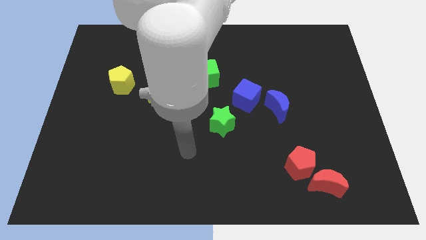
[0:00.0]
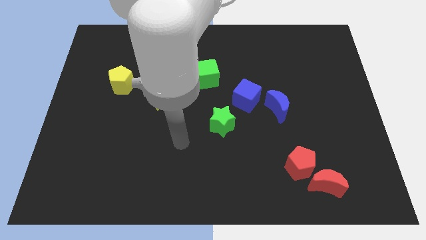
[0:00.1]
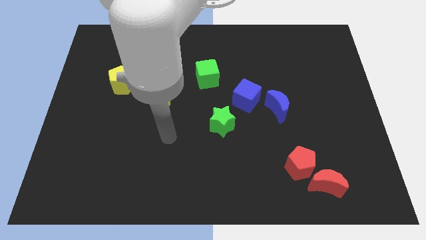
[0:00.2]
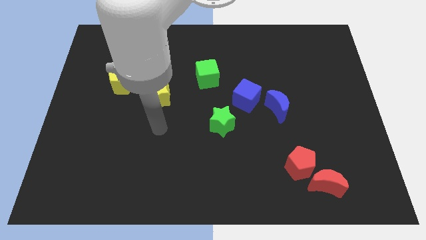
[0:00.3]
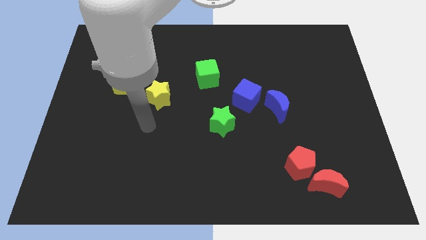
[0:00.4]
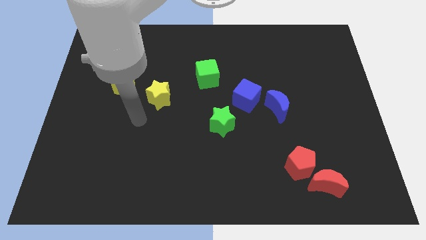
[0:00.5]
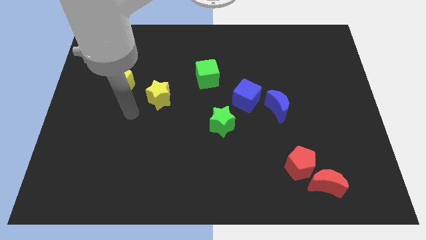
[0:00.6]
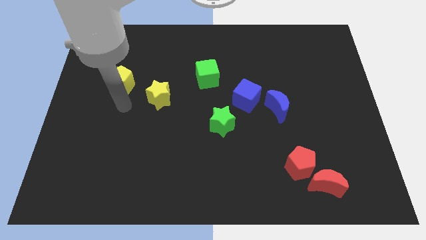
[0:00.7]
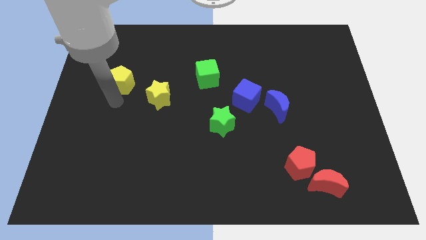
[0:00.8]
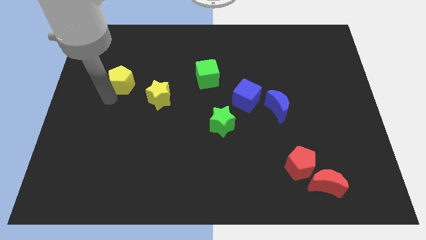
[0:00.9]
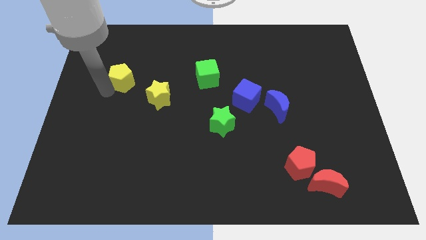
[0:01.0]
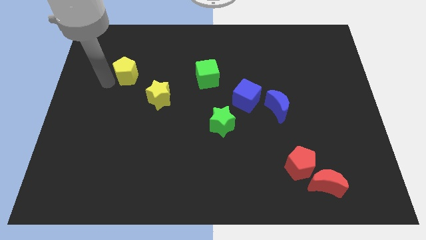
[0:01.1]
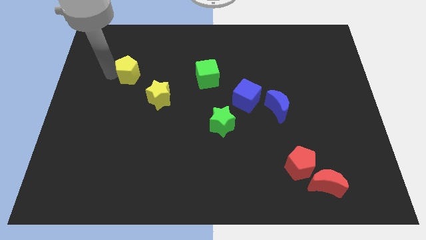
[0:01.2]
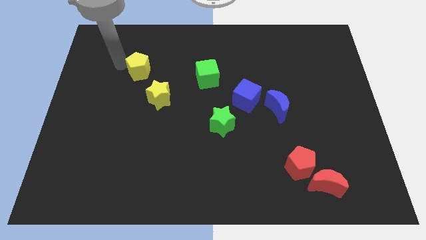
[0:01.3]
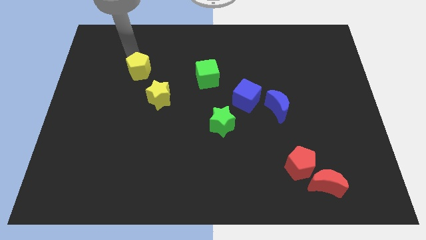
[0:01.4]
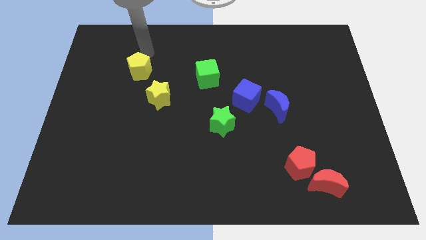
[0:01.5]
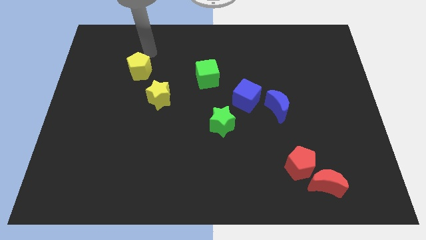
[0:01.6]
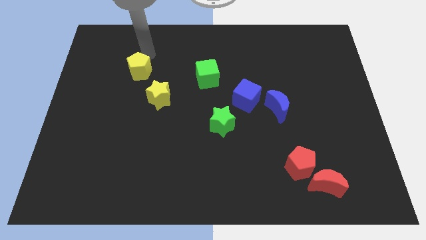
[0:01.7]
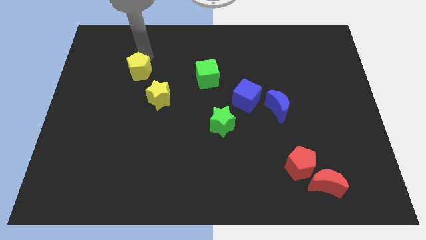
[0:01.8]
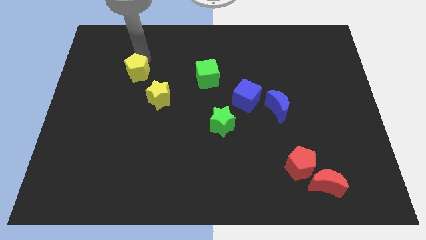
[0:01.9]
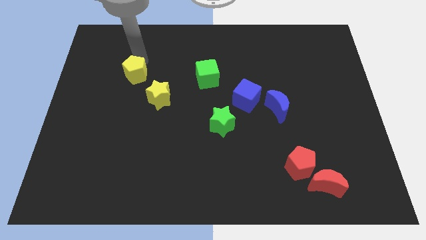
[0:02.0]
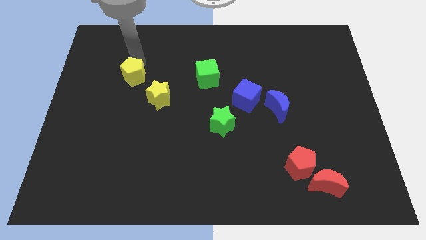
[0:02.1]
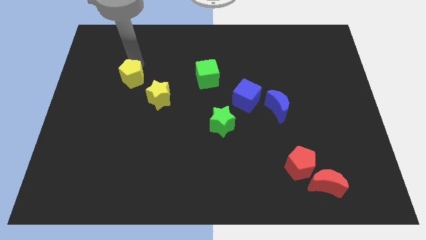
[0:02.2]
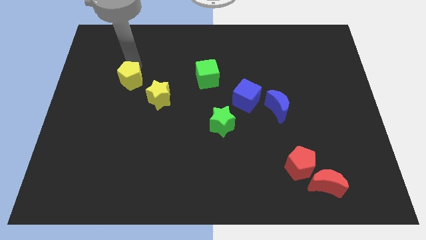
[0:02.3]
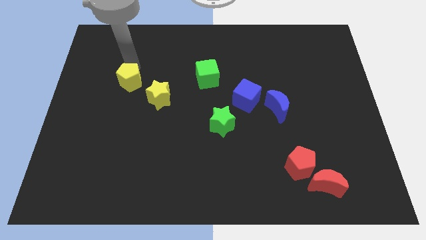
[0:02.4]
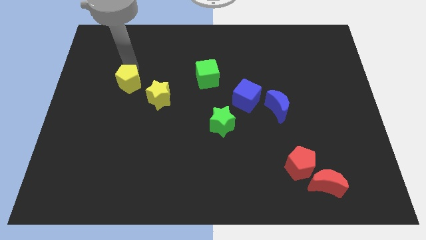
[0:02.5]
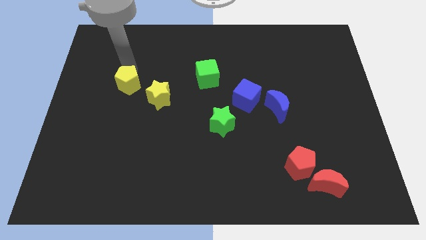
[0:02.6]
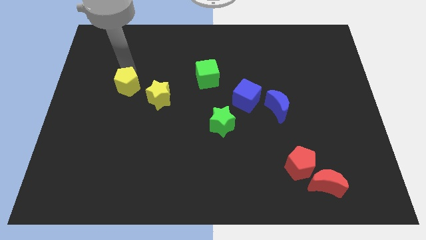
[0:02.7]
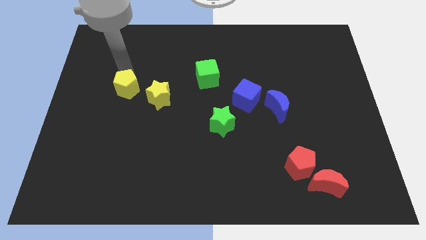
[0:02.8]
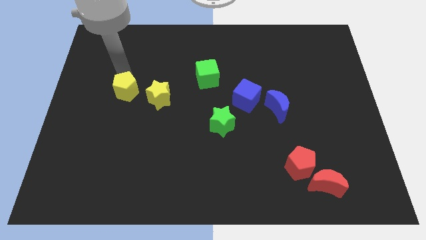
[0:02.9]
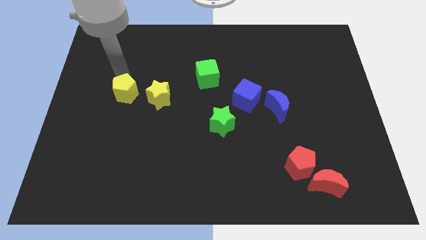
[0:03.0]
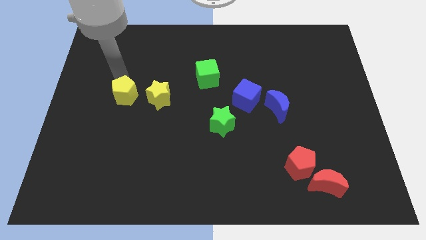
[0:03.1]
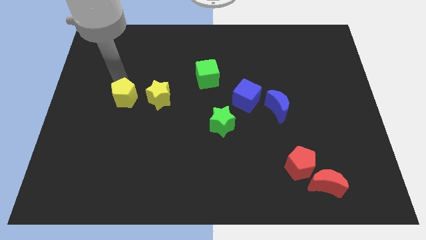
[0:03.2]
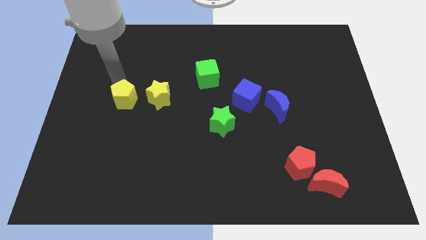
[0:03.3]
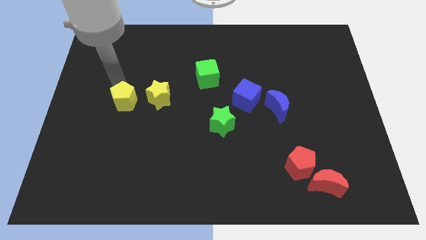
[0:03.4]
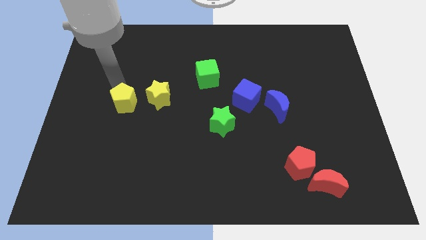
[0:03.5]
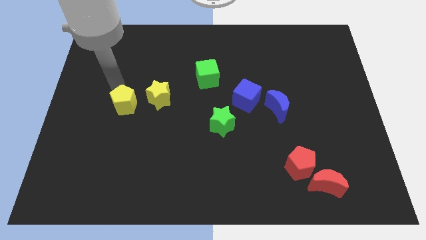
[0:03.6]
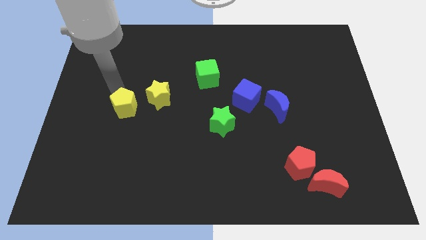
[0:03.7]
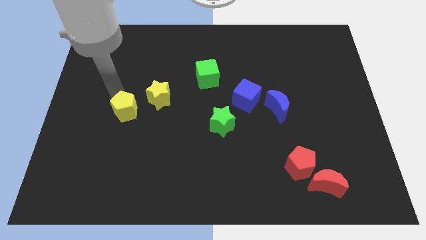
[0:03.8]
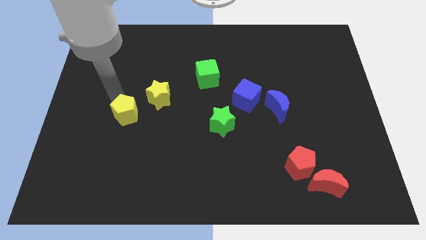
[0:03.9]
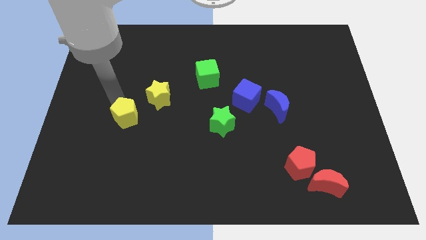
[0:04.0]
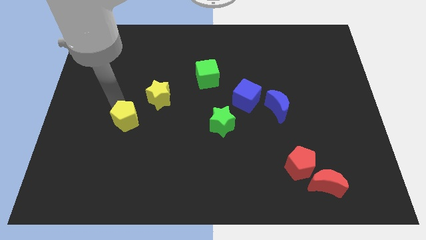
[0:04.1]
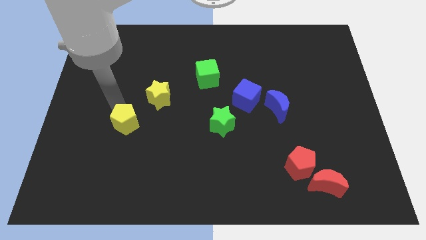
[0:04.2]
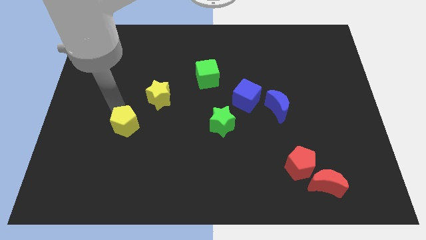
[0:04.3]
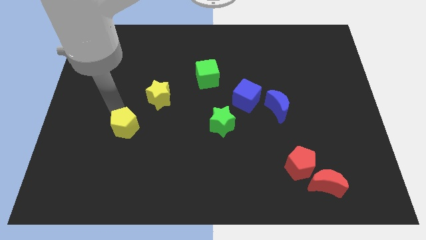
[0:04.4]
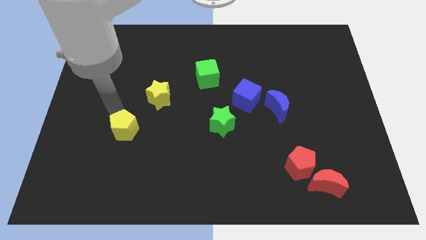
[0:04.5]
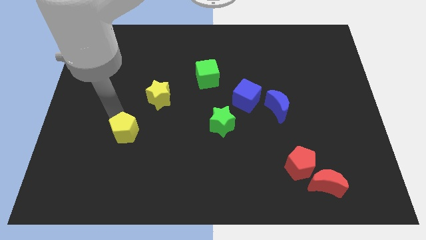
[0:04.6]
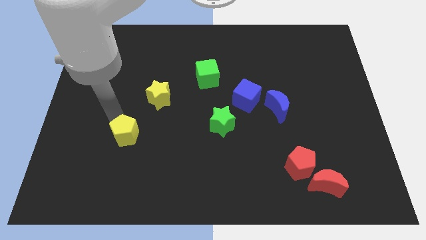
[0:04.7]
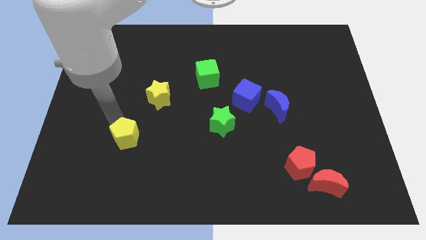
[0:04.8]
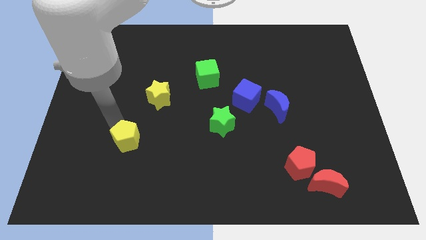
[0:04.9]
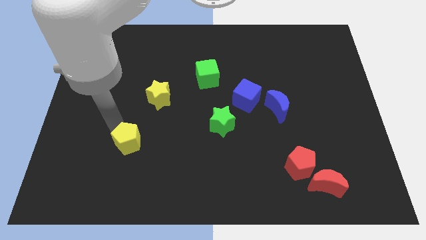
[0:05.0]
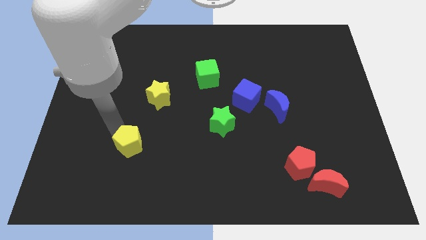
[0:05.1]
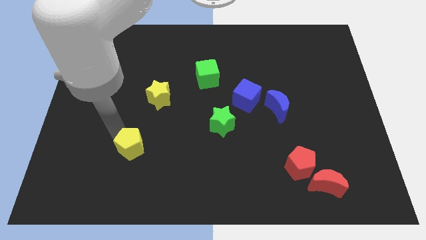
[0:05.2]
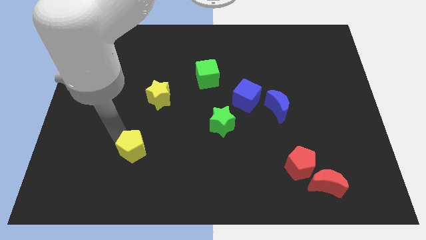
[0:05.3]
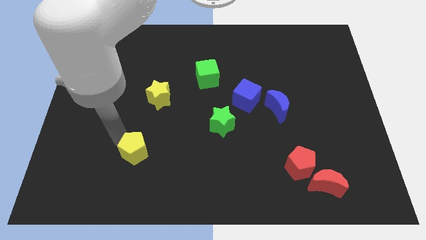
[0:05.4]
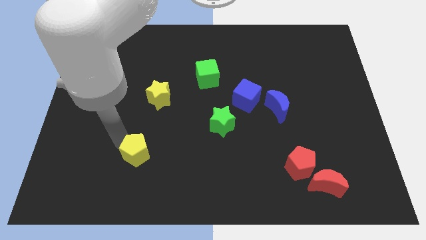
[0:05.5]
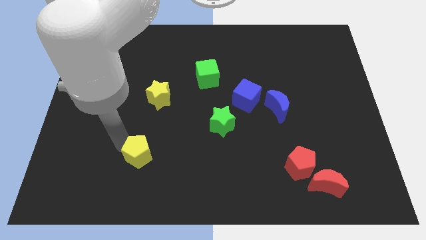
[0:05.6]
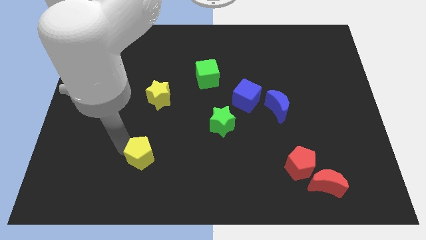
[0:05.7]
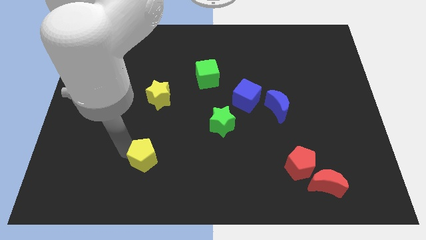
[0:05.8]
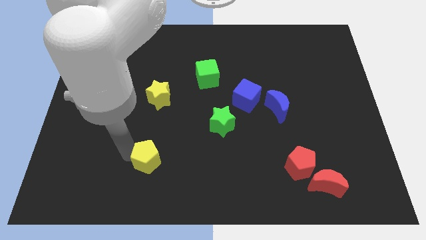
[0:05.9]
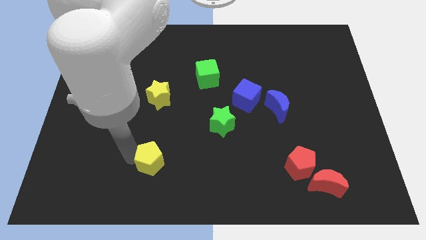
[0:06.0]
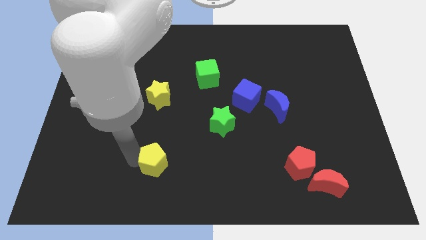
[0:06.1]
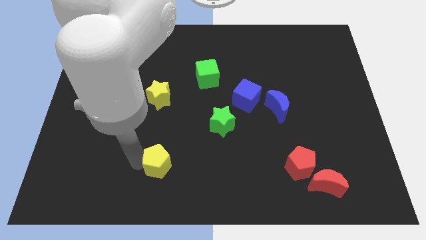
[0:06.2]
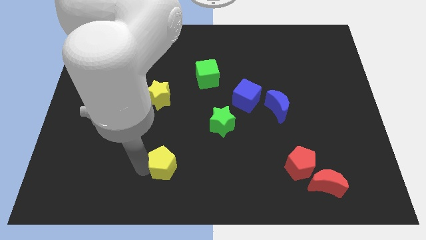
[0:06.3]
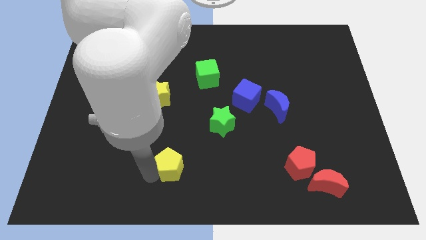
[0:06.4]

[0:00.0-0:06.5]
push the yellow pentagon to the bottom side
